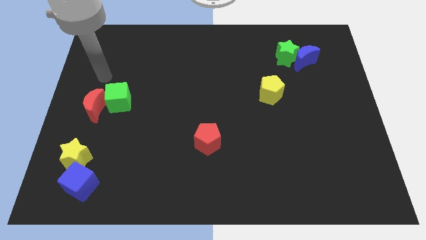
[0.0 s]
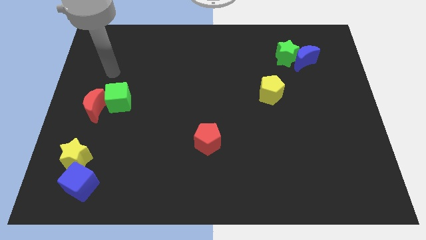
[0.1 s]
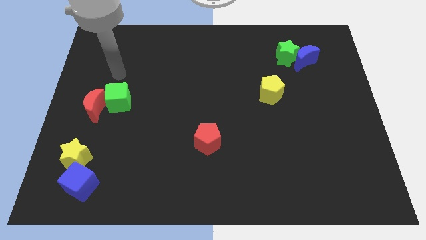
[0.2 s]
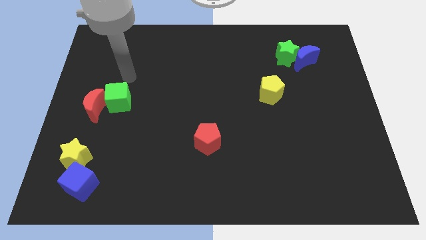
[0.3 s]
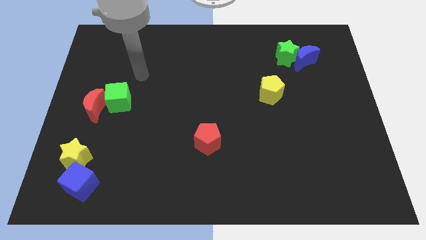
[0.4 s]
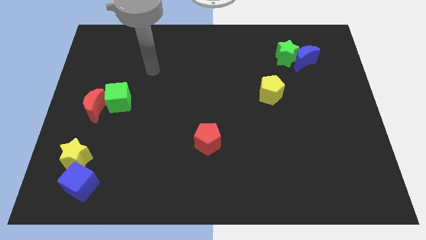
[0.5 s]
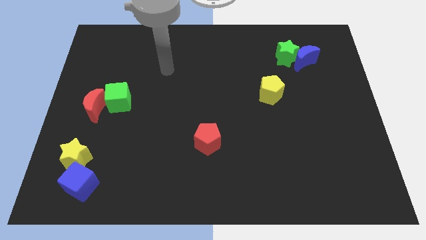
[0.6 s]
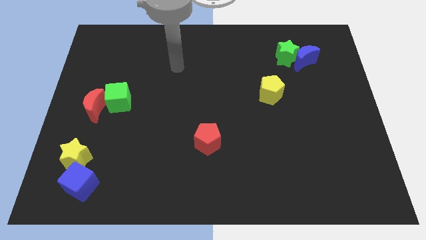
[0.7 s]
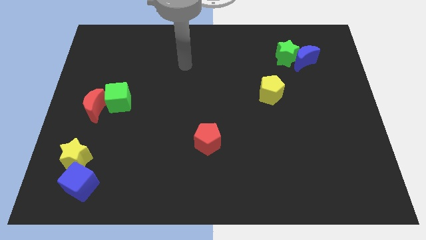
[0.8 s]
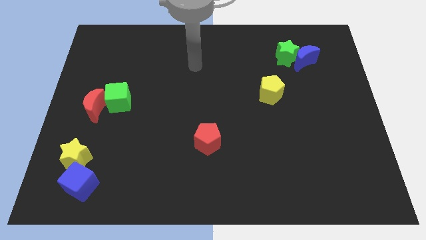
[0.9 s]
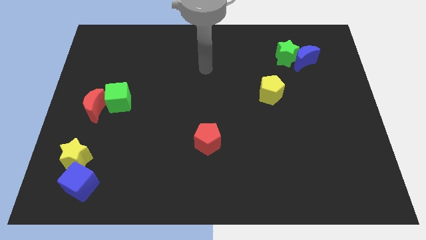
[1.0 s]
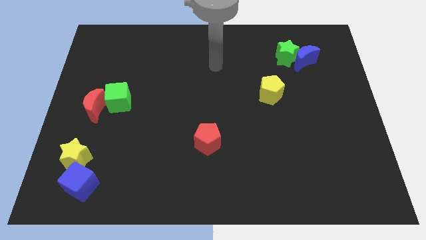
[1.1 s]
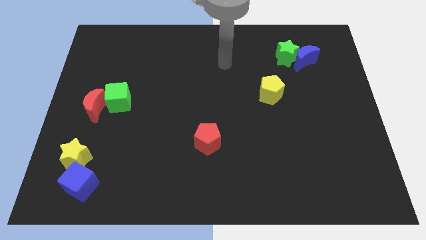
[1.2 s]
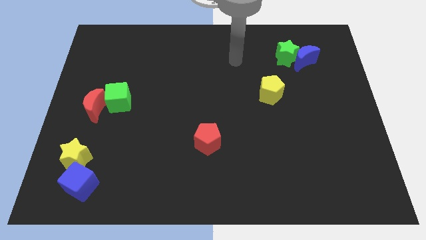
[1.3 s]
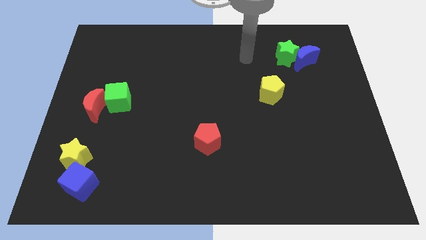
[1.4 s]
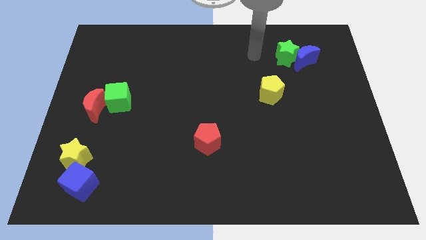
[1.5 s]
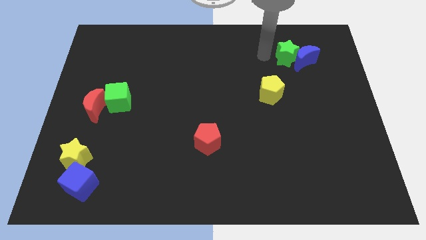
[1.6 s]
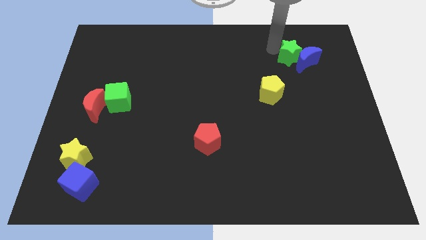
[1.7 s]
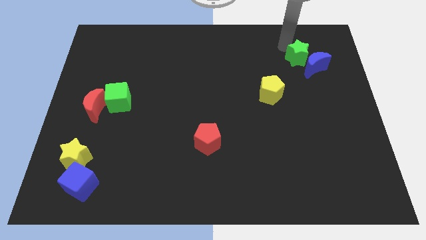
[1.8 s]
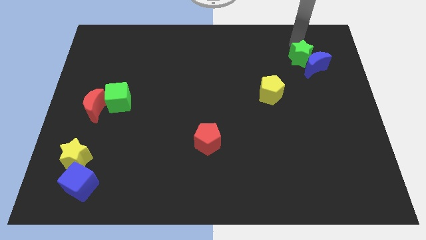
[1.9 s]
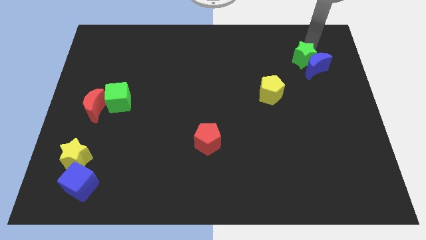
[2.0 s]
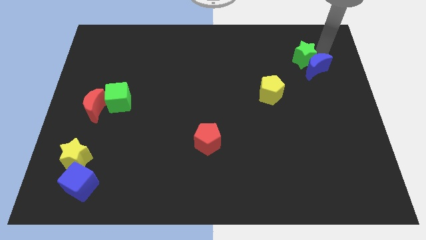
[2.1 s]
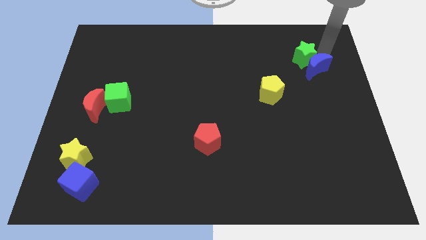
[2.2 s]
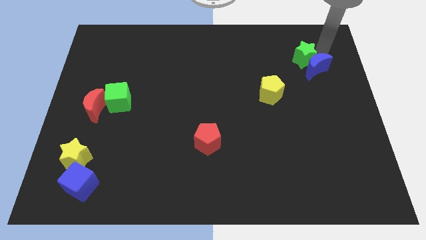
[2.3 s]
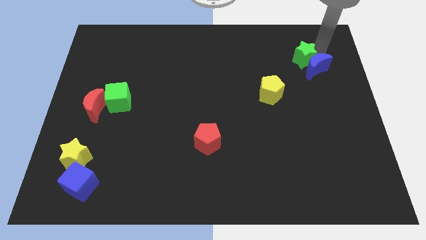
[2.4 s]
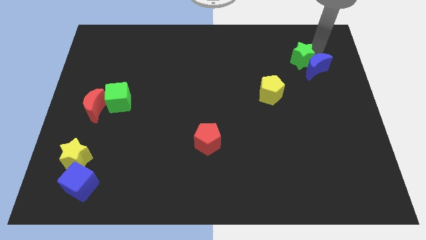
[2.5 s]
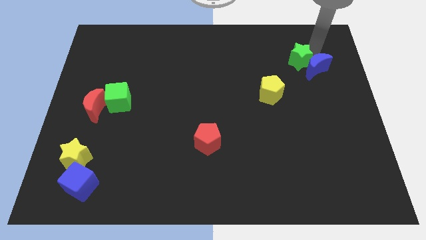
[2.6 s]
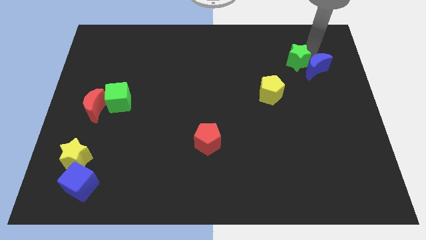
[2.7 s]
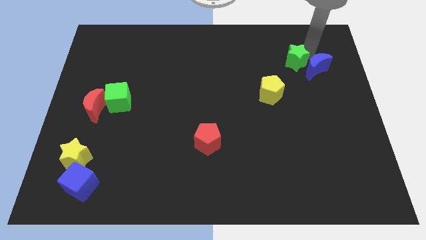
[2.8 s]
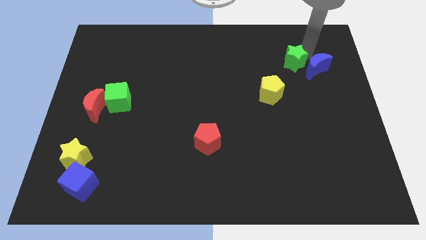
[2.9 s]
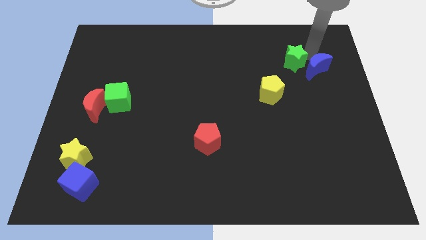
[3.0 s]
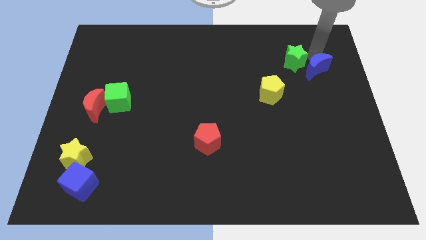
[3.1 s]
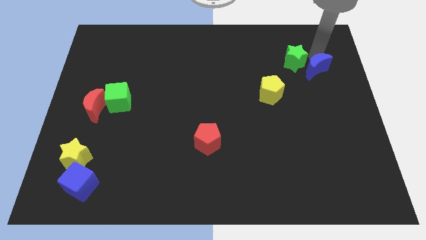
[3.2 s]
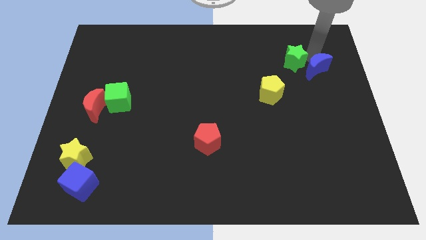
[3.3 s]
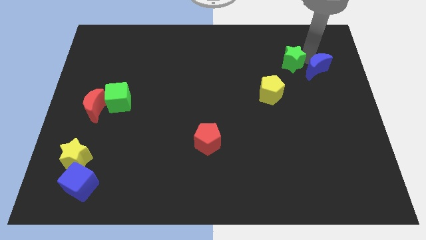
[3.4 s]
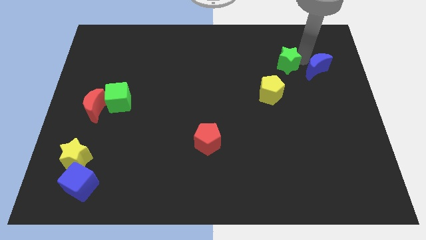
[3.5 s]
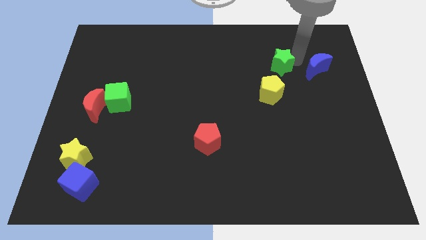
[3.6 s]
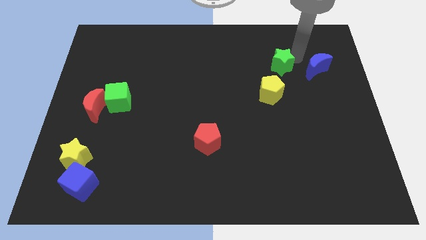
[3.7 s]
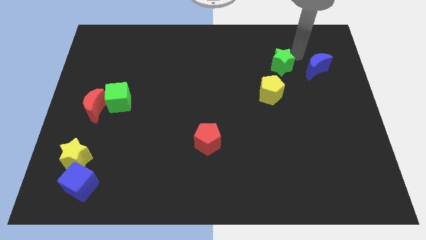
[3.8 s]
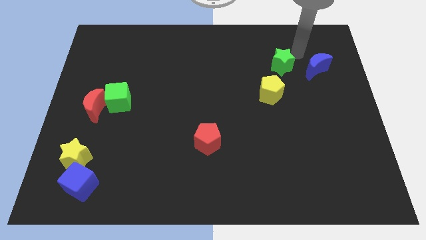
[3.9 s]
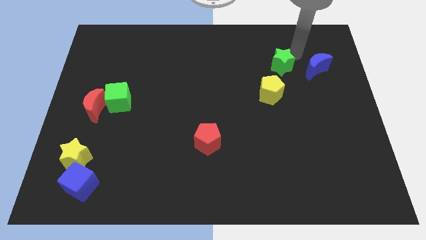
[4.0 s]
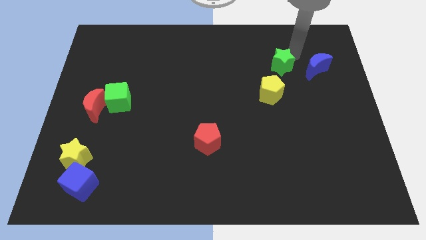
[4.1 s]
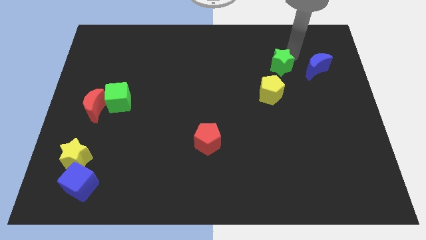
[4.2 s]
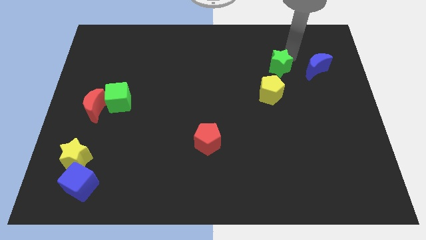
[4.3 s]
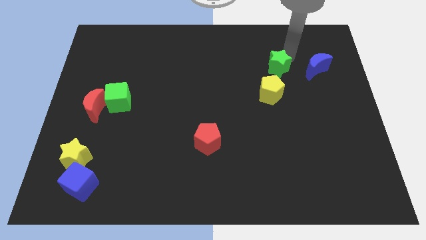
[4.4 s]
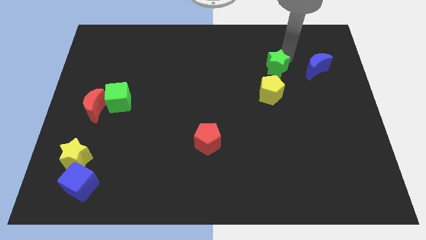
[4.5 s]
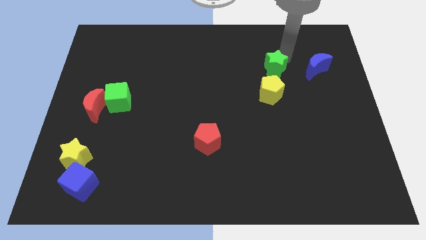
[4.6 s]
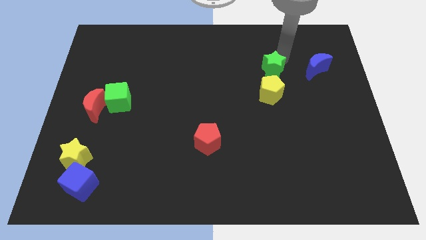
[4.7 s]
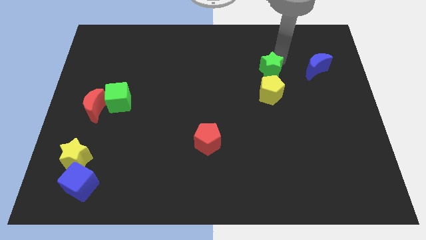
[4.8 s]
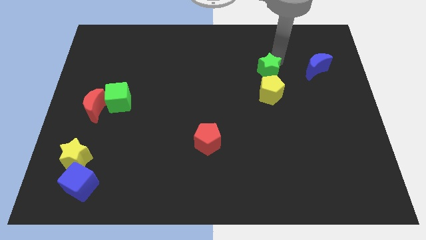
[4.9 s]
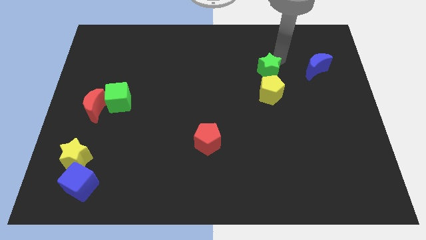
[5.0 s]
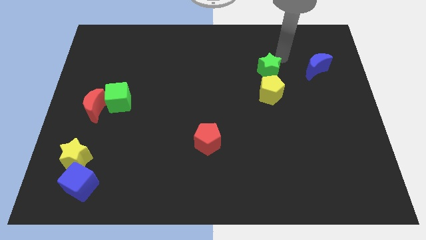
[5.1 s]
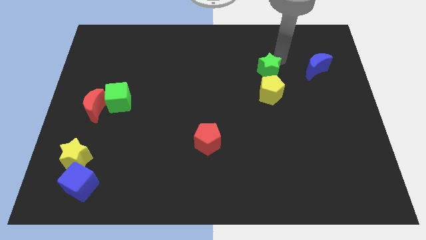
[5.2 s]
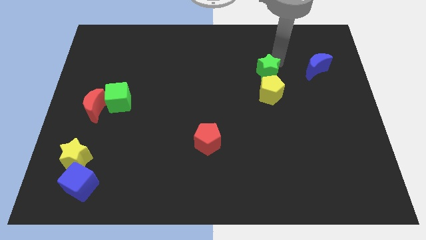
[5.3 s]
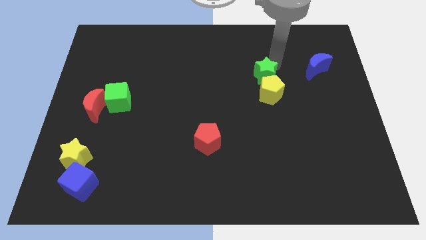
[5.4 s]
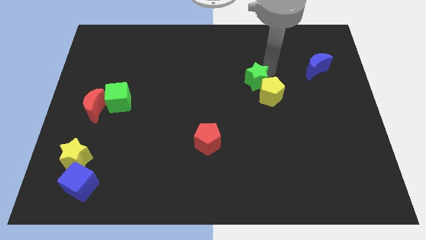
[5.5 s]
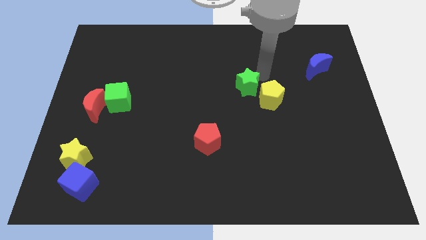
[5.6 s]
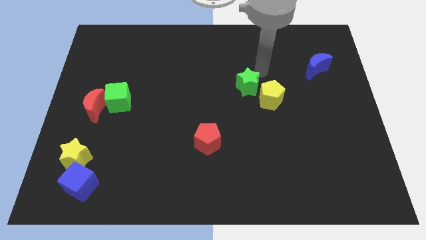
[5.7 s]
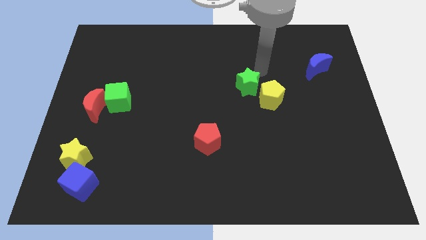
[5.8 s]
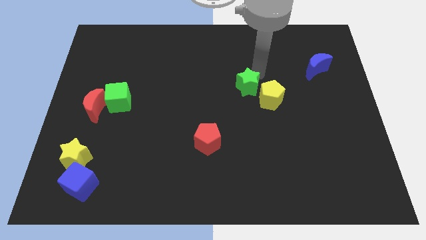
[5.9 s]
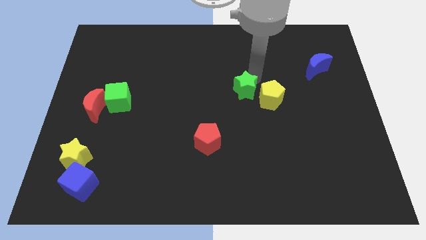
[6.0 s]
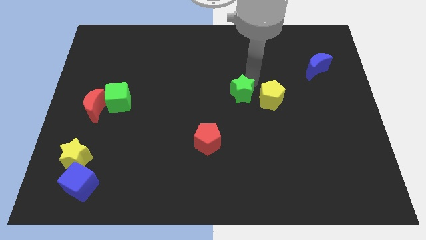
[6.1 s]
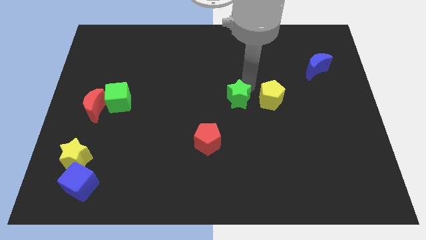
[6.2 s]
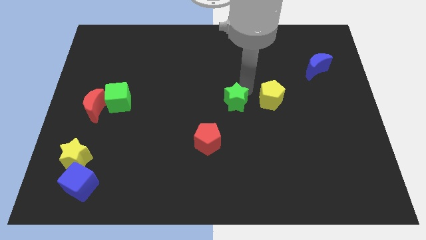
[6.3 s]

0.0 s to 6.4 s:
move the green star down and then left

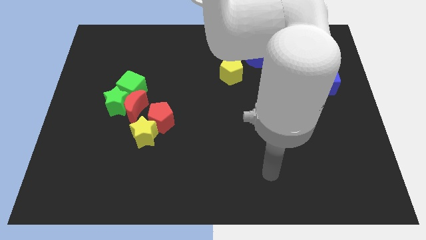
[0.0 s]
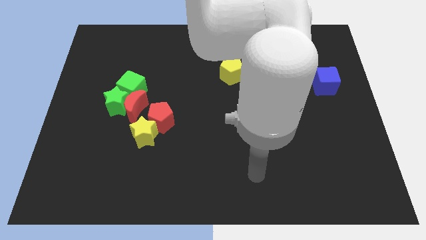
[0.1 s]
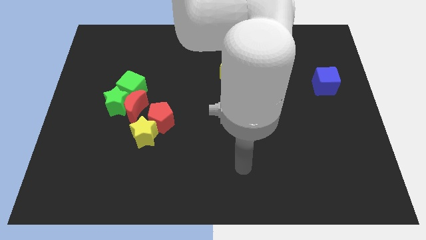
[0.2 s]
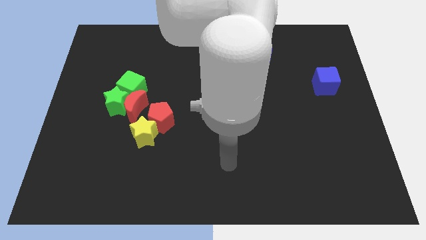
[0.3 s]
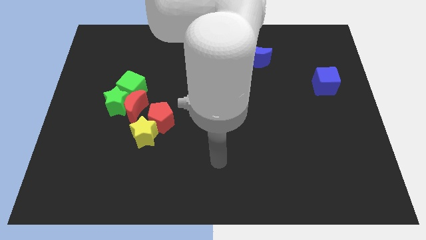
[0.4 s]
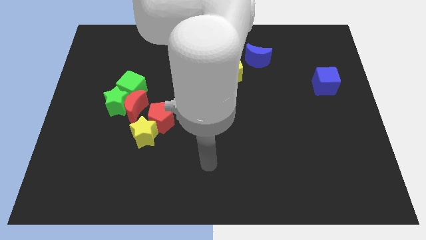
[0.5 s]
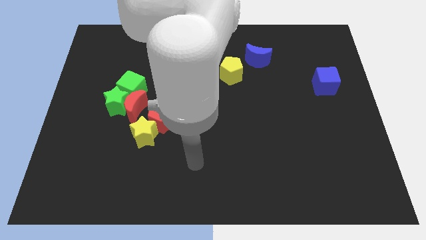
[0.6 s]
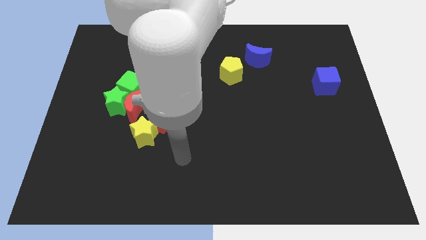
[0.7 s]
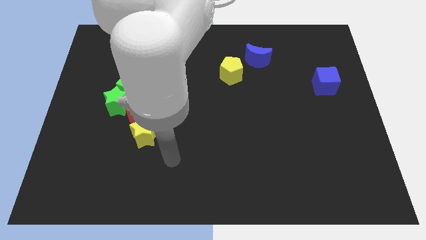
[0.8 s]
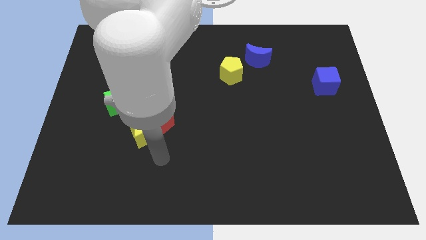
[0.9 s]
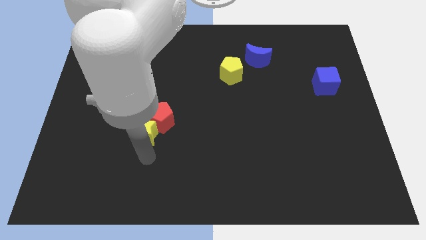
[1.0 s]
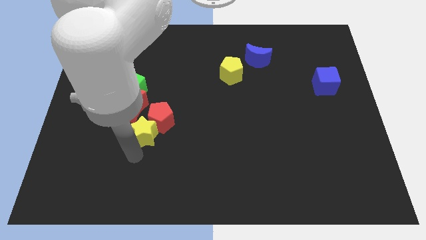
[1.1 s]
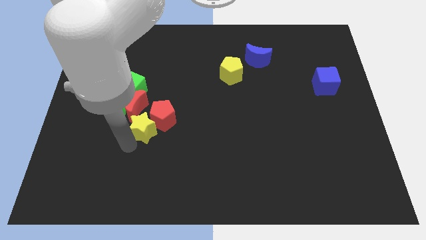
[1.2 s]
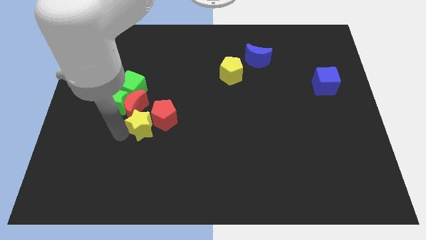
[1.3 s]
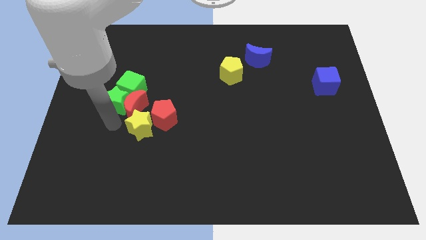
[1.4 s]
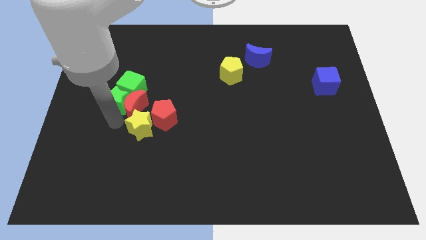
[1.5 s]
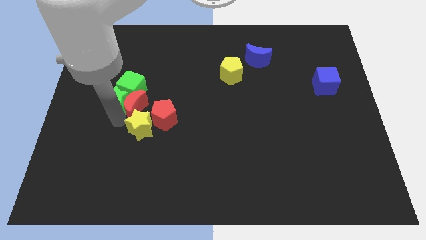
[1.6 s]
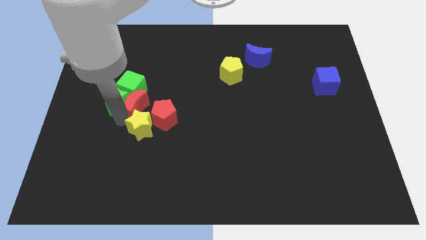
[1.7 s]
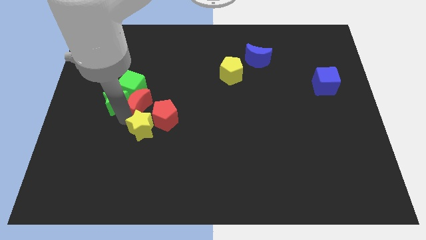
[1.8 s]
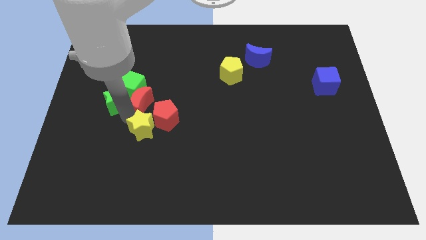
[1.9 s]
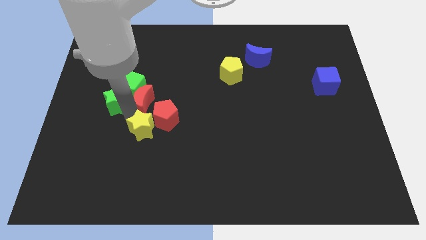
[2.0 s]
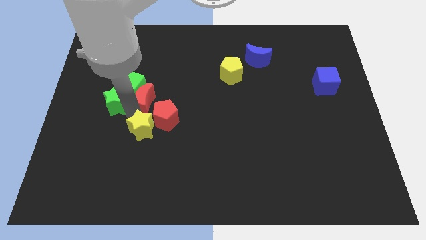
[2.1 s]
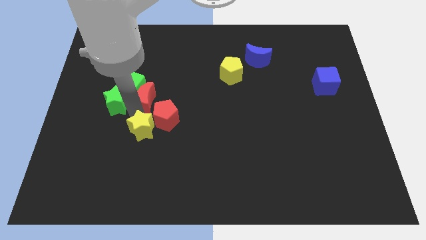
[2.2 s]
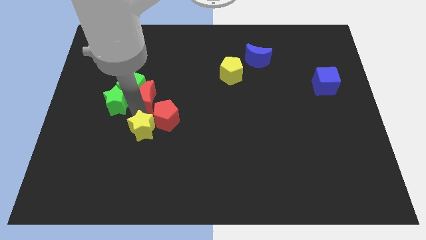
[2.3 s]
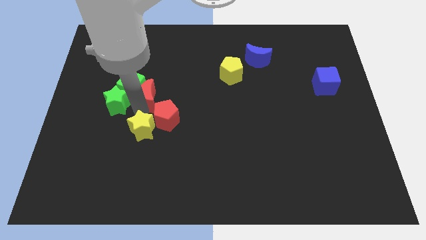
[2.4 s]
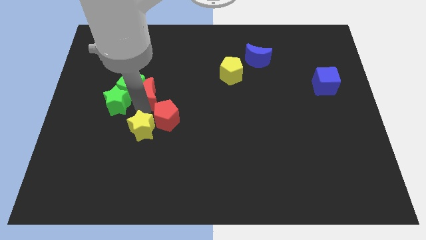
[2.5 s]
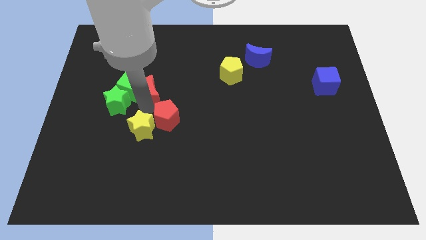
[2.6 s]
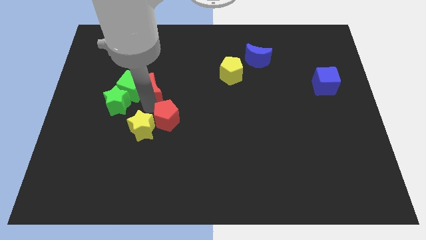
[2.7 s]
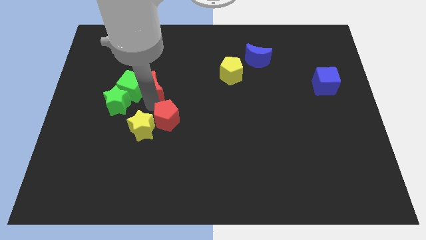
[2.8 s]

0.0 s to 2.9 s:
slide the red moon somewhat up and then right
